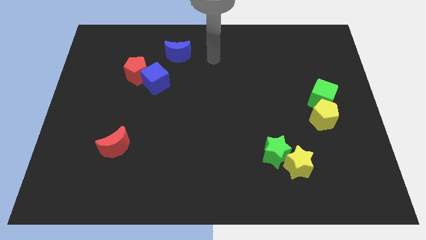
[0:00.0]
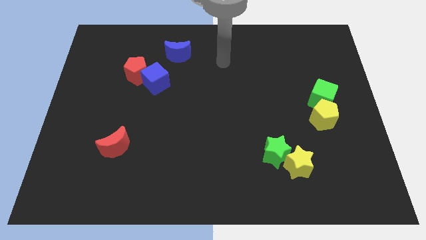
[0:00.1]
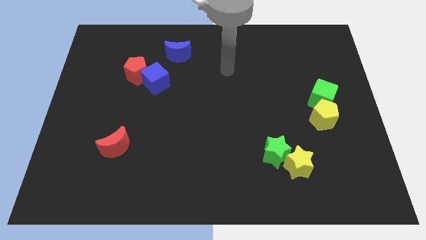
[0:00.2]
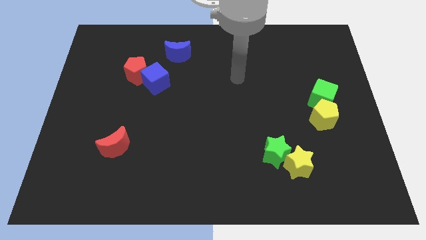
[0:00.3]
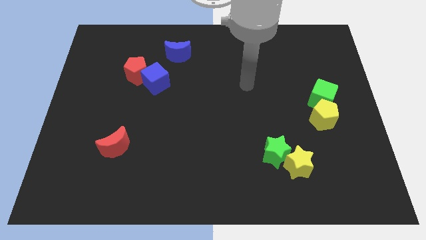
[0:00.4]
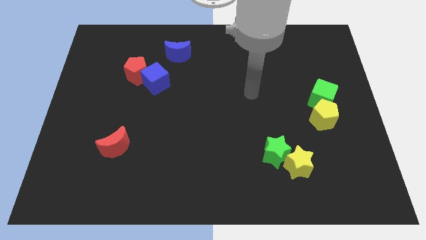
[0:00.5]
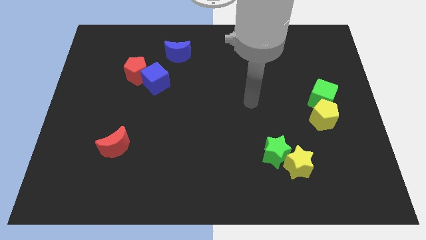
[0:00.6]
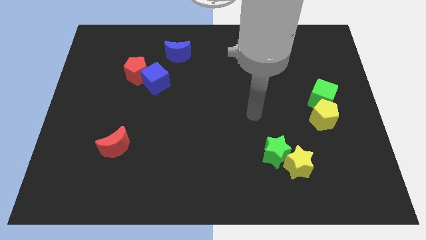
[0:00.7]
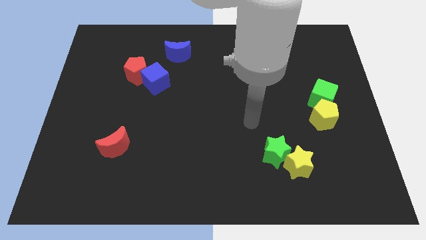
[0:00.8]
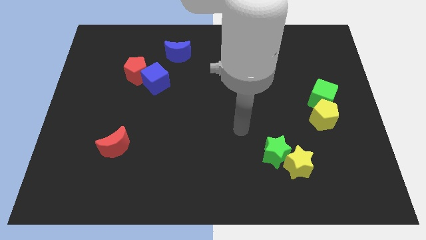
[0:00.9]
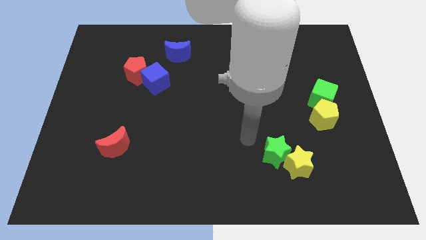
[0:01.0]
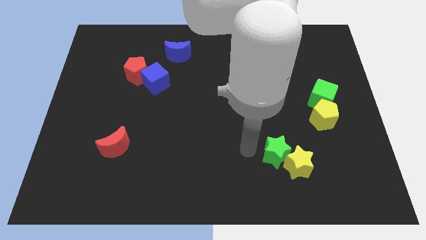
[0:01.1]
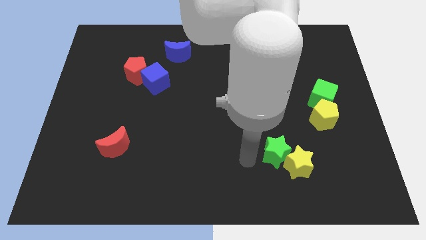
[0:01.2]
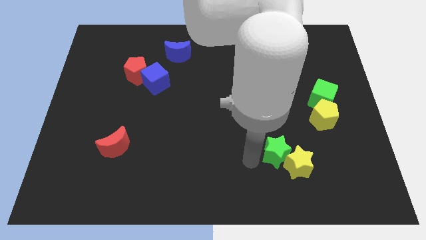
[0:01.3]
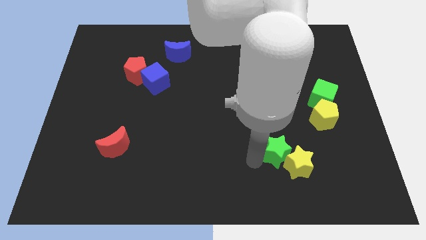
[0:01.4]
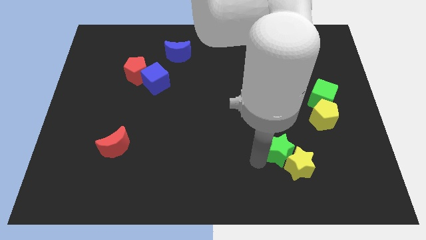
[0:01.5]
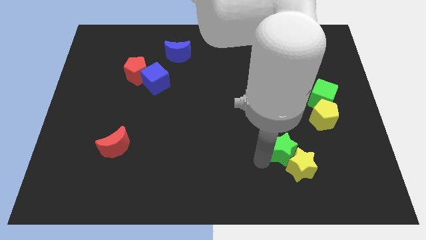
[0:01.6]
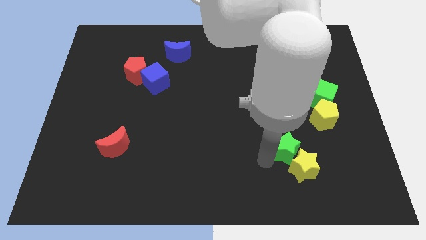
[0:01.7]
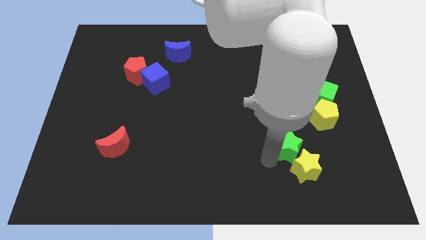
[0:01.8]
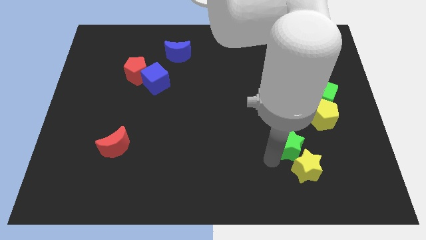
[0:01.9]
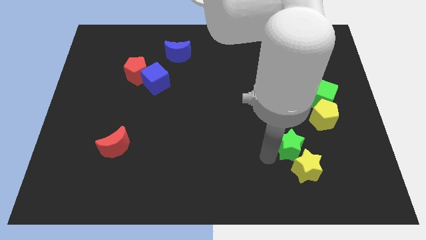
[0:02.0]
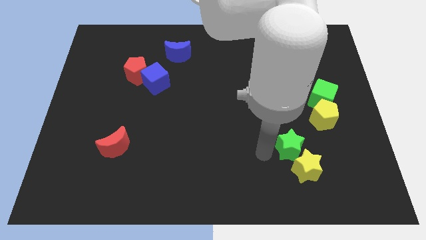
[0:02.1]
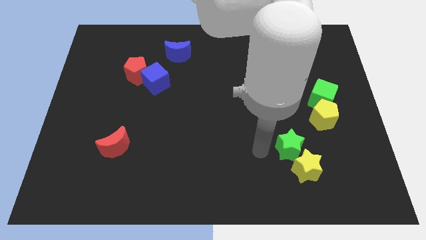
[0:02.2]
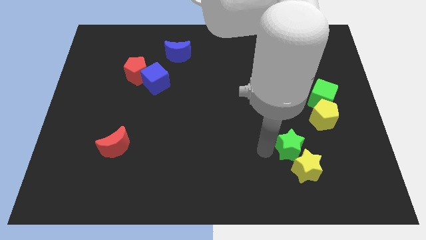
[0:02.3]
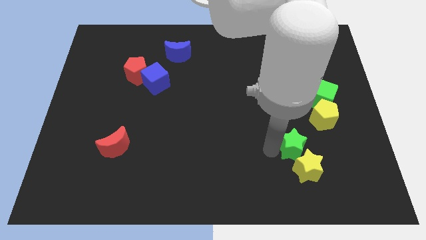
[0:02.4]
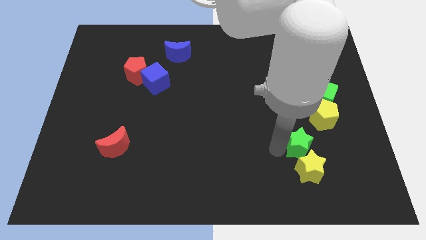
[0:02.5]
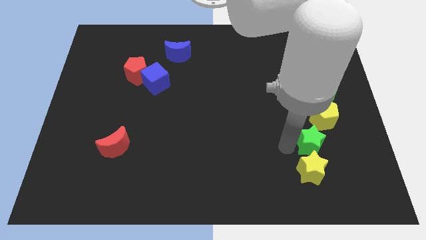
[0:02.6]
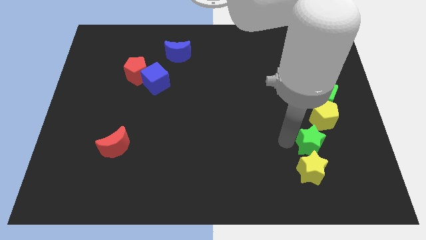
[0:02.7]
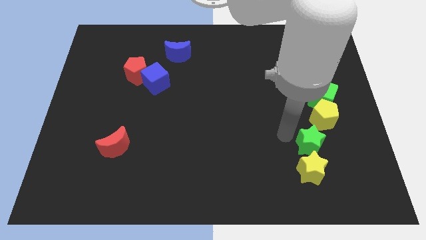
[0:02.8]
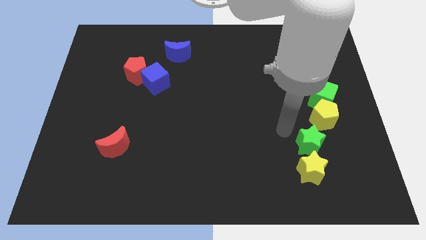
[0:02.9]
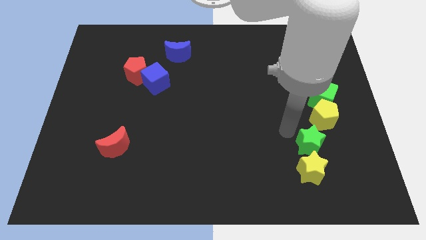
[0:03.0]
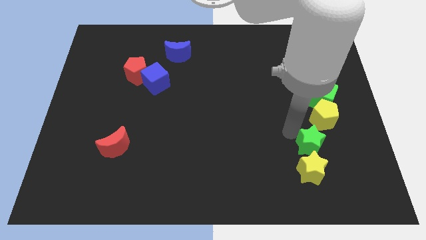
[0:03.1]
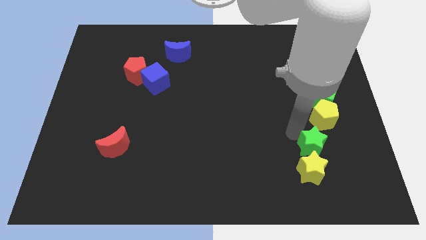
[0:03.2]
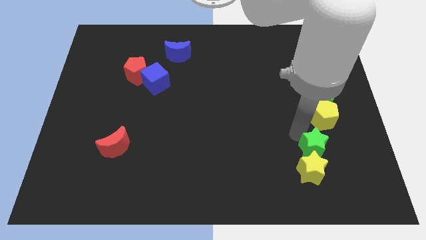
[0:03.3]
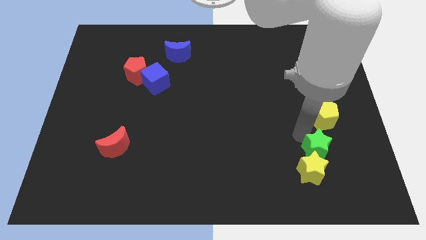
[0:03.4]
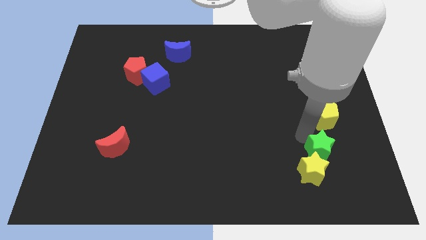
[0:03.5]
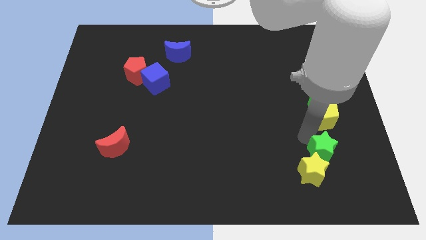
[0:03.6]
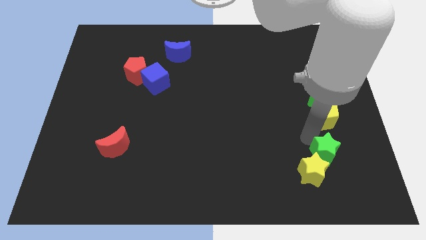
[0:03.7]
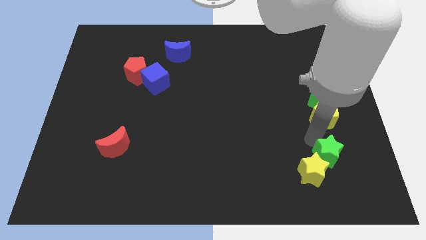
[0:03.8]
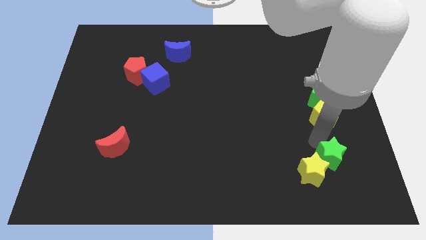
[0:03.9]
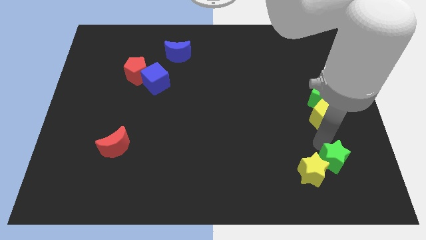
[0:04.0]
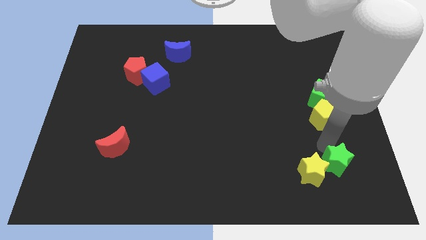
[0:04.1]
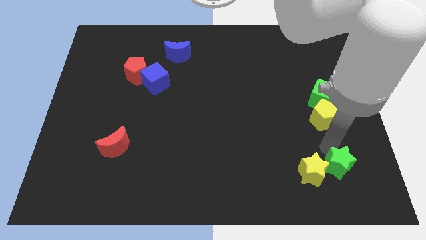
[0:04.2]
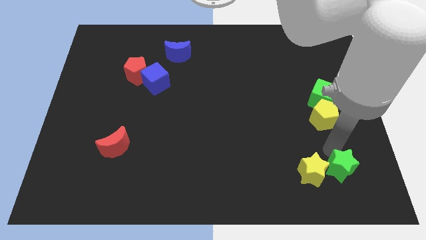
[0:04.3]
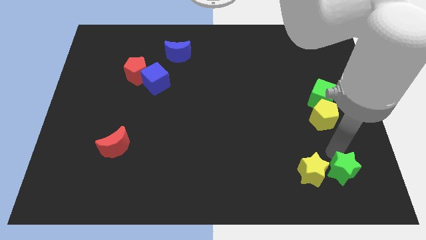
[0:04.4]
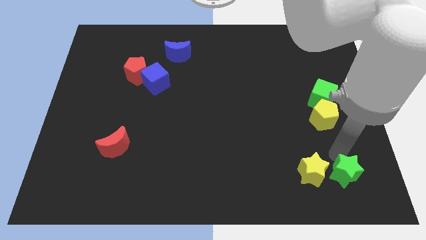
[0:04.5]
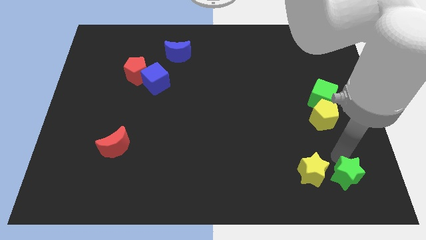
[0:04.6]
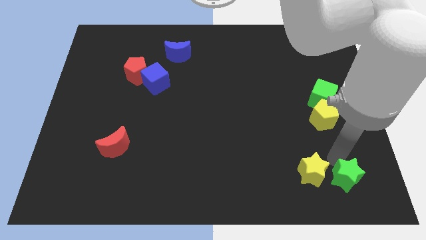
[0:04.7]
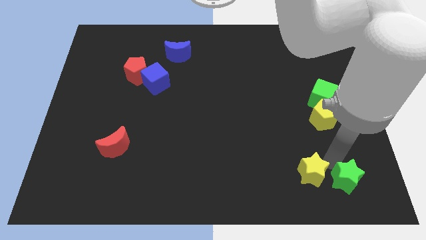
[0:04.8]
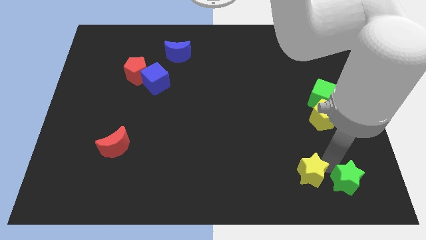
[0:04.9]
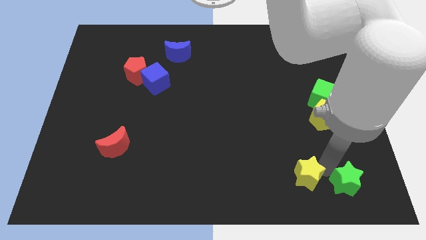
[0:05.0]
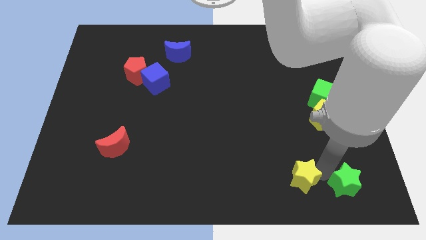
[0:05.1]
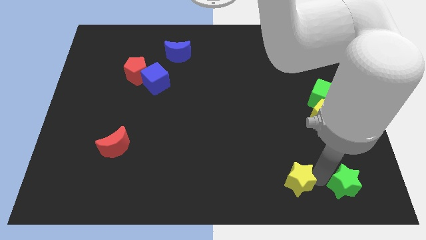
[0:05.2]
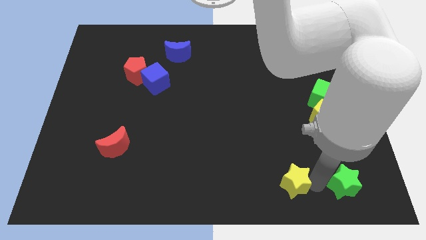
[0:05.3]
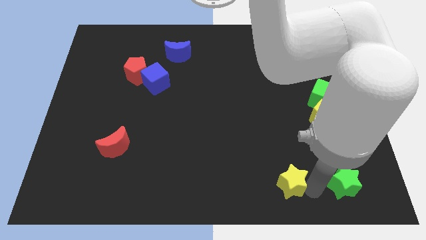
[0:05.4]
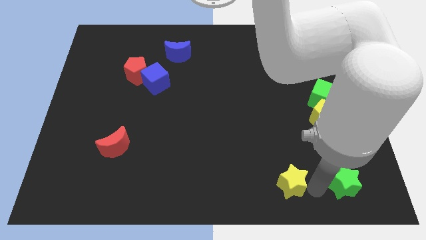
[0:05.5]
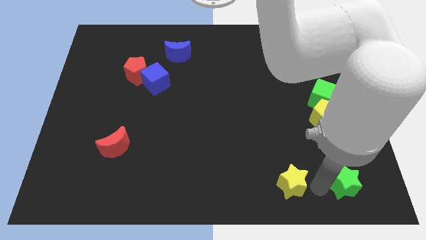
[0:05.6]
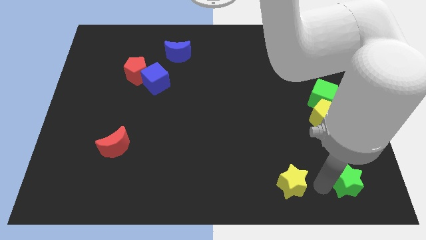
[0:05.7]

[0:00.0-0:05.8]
push the green star to the bottom right
